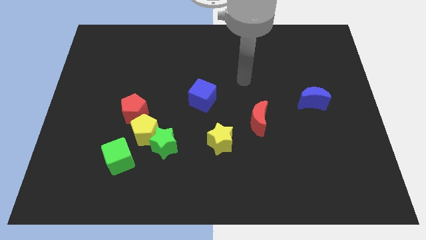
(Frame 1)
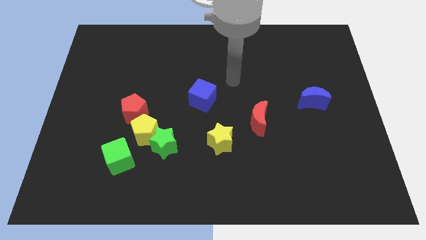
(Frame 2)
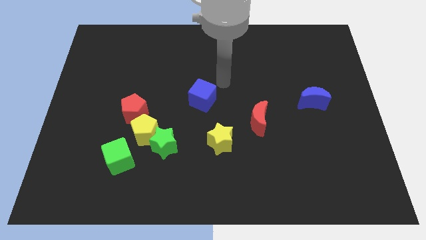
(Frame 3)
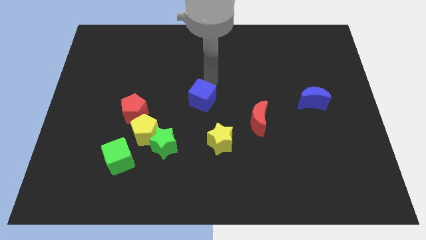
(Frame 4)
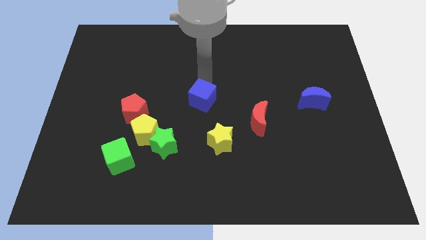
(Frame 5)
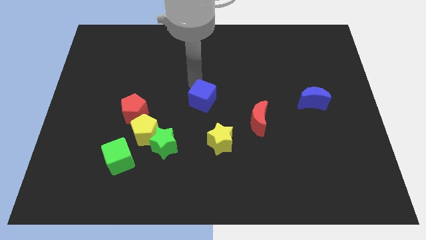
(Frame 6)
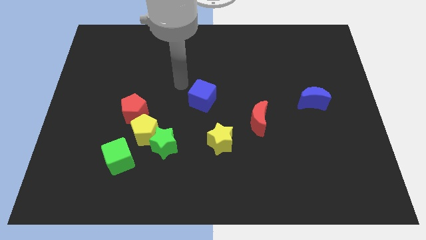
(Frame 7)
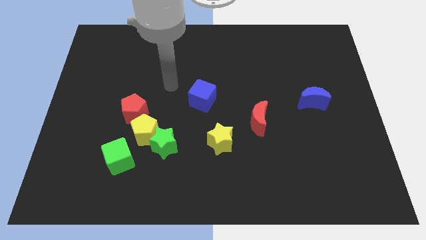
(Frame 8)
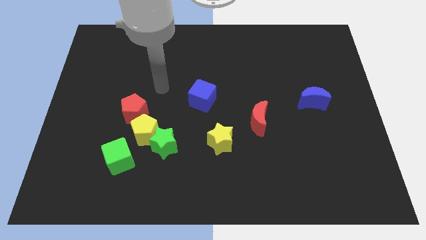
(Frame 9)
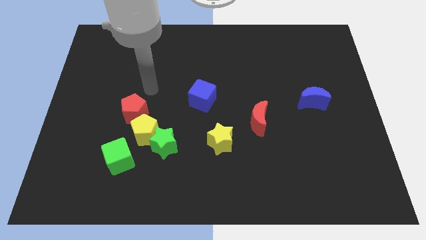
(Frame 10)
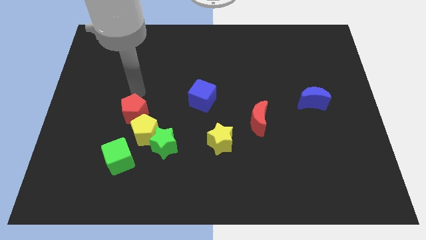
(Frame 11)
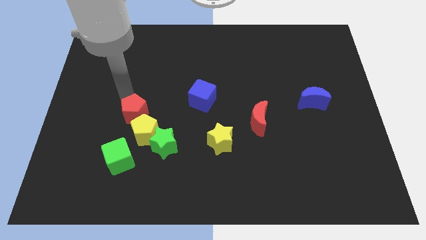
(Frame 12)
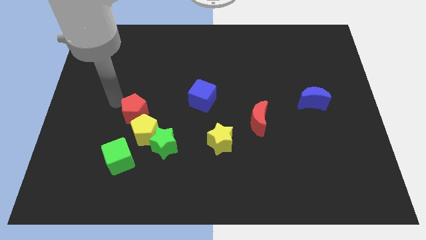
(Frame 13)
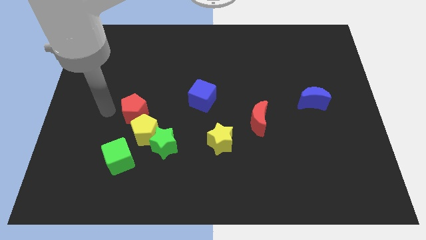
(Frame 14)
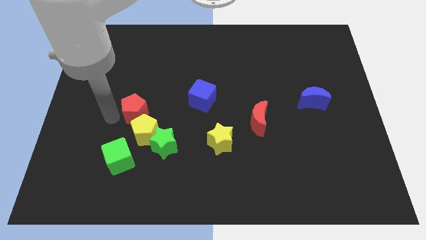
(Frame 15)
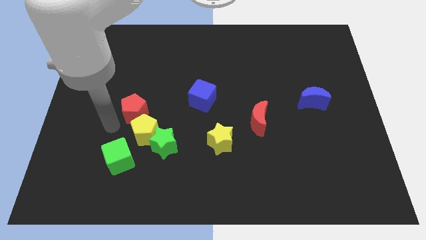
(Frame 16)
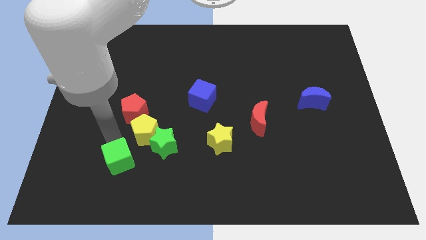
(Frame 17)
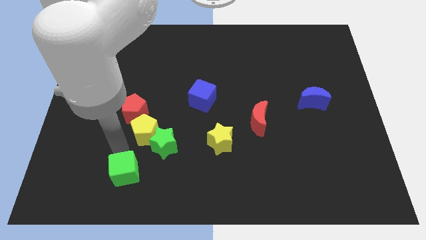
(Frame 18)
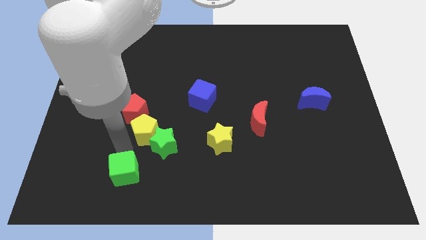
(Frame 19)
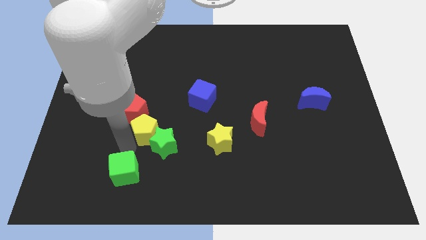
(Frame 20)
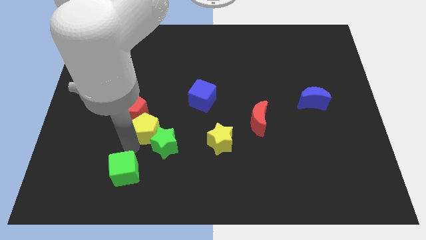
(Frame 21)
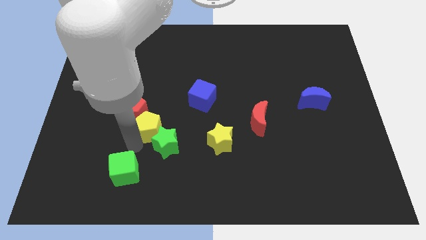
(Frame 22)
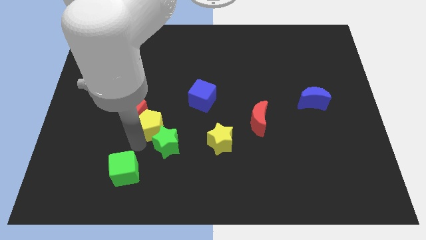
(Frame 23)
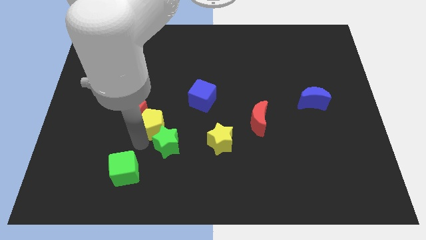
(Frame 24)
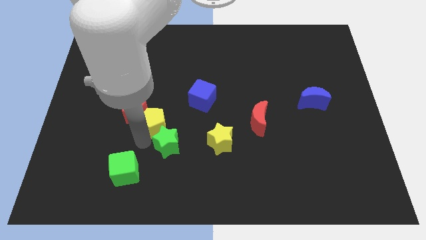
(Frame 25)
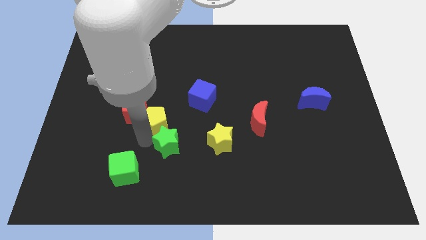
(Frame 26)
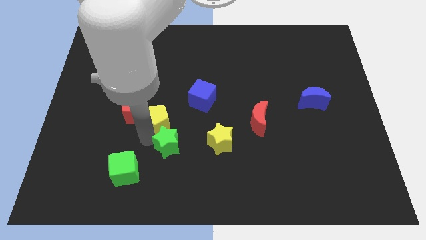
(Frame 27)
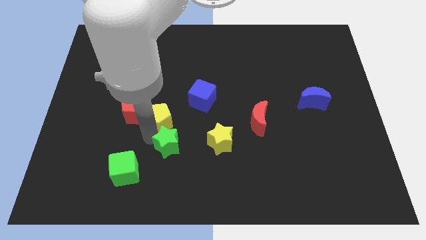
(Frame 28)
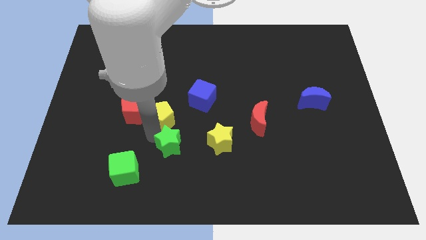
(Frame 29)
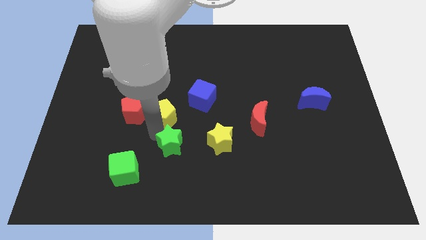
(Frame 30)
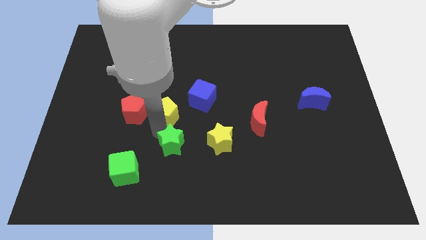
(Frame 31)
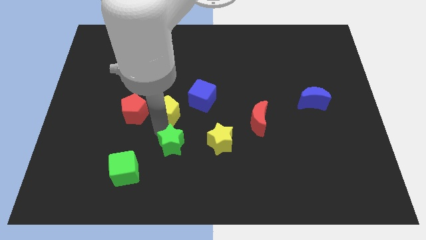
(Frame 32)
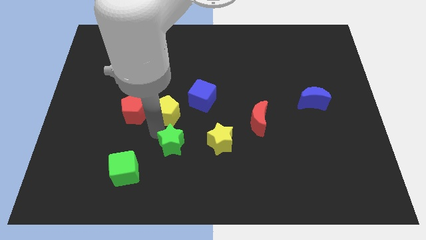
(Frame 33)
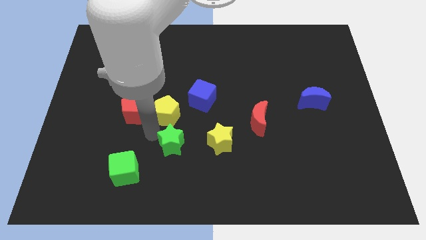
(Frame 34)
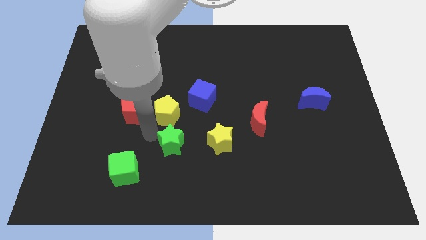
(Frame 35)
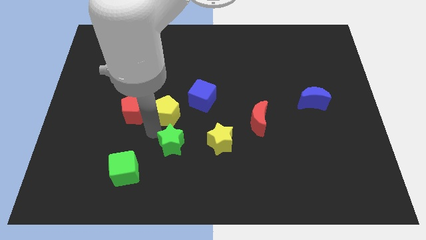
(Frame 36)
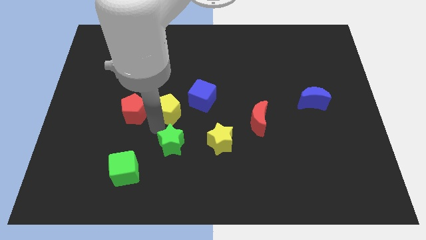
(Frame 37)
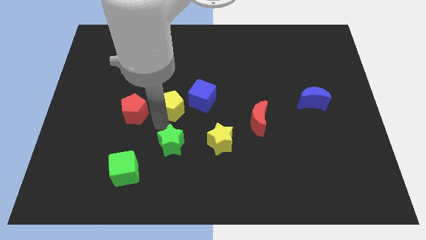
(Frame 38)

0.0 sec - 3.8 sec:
pull the yellow pentagon apart from the green star, red pentagon, and green cube

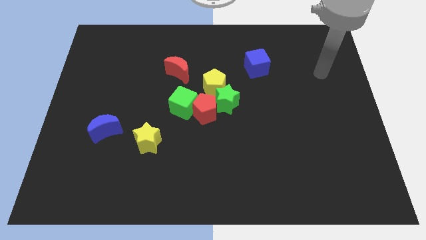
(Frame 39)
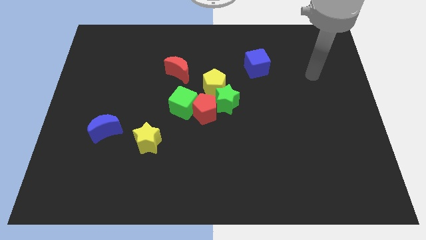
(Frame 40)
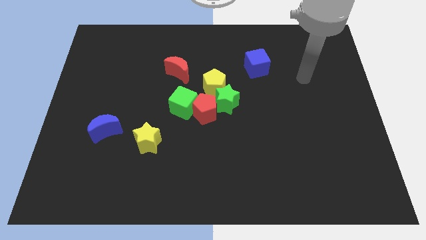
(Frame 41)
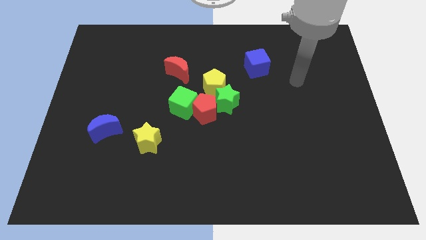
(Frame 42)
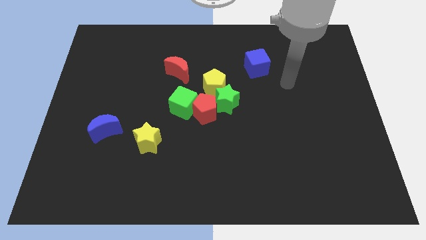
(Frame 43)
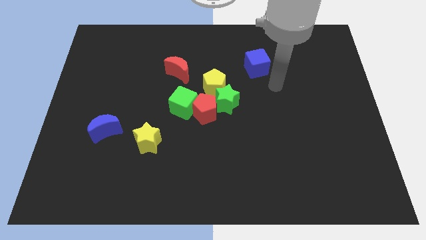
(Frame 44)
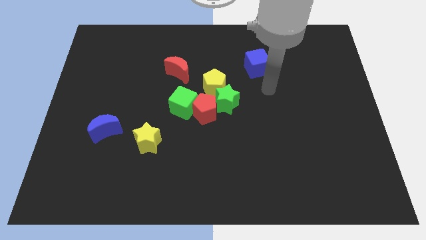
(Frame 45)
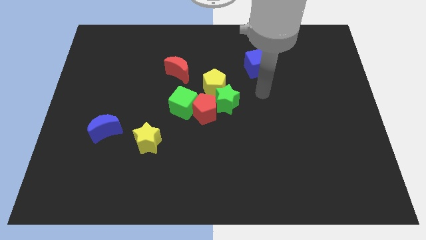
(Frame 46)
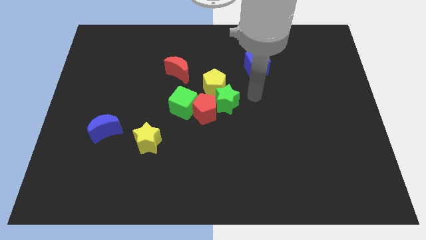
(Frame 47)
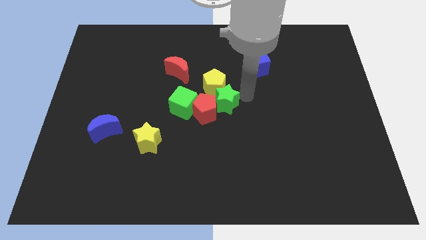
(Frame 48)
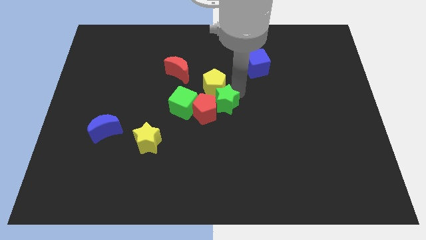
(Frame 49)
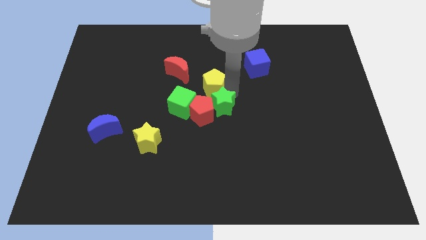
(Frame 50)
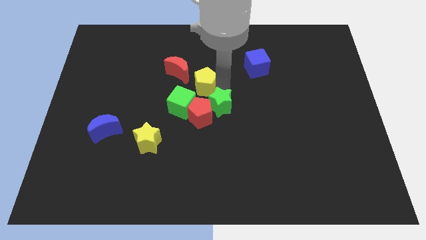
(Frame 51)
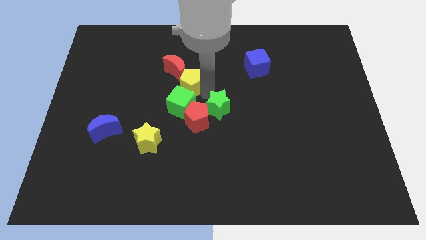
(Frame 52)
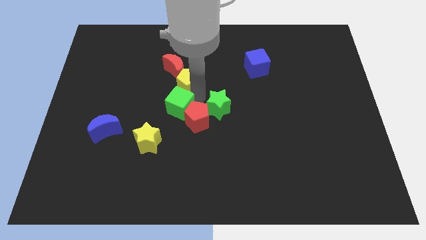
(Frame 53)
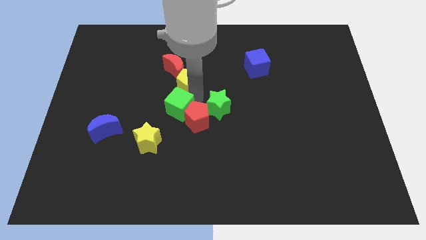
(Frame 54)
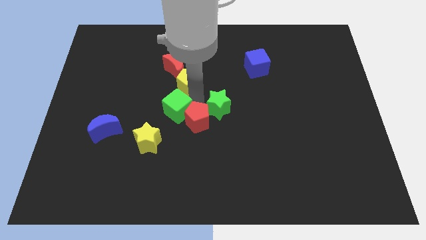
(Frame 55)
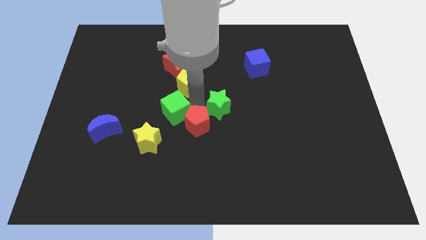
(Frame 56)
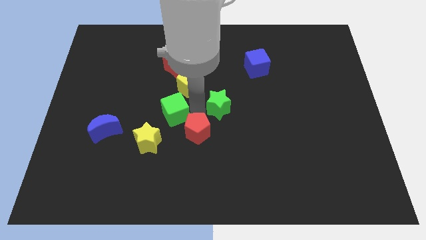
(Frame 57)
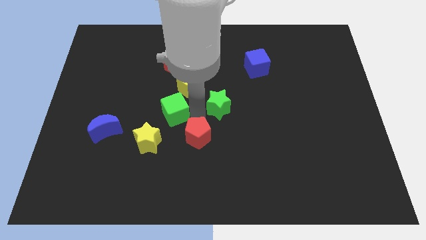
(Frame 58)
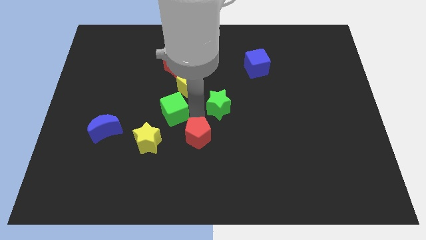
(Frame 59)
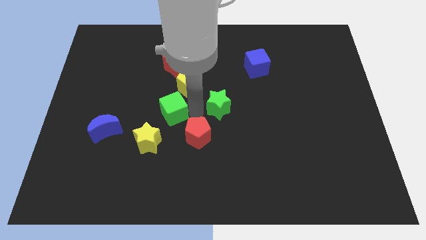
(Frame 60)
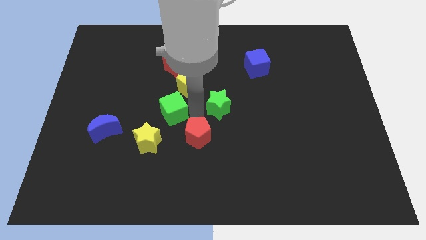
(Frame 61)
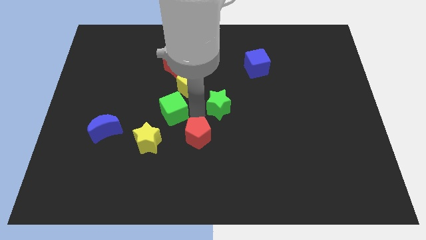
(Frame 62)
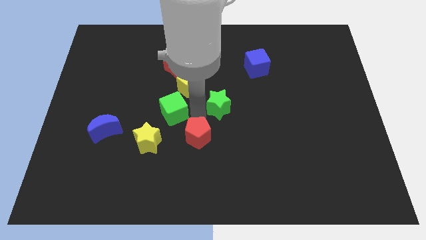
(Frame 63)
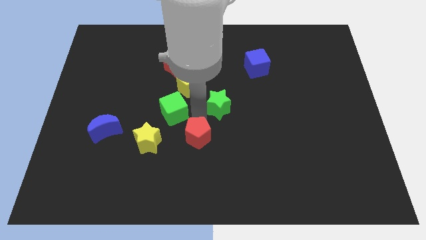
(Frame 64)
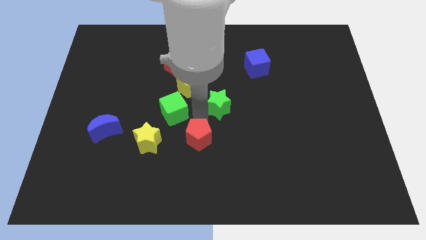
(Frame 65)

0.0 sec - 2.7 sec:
pull the red pentagon apart from the green star, green cube, and yellow pentagon

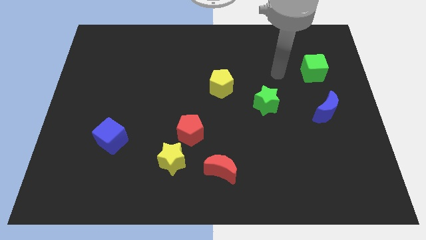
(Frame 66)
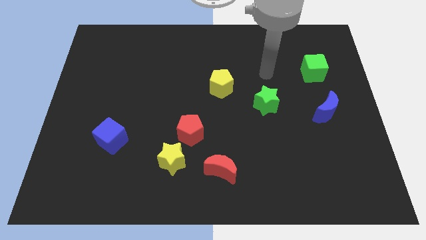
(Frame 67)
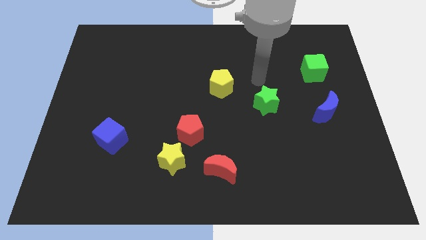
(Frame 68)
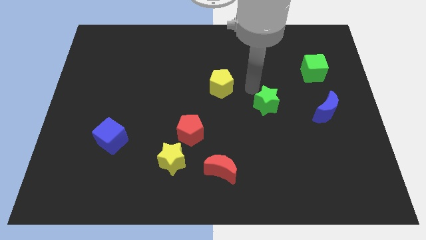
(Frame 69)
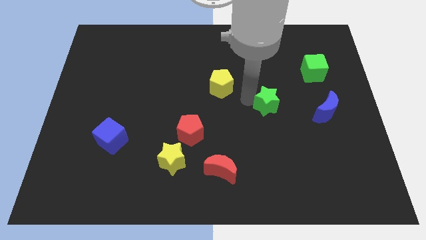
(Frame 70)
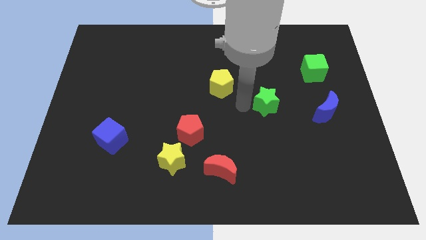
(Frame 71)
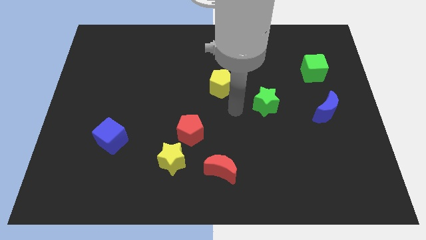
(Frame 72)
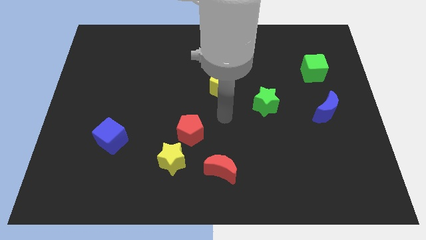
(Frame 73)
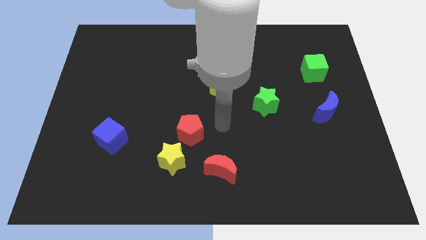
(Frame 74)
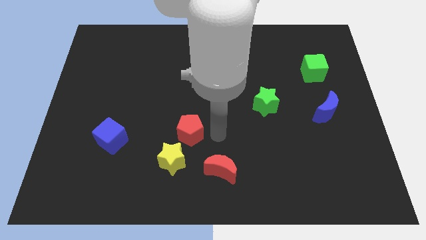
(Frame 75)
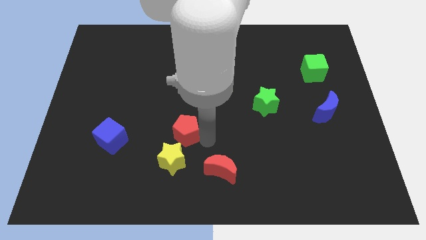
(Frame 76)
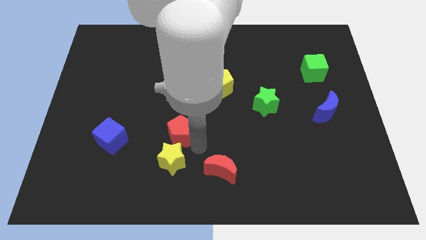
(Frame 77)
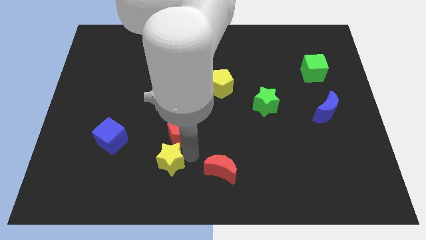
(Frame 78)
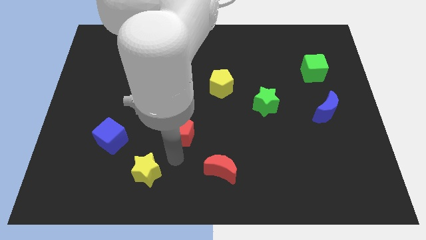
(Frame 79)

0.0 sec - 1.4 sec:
separate the red pentagon from the yellow star

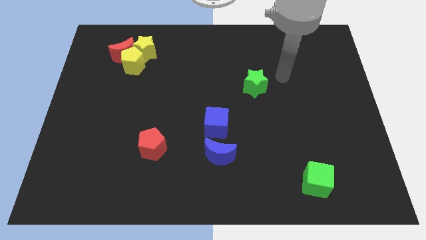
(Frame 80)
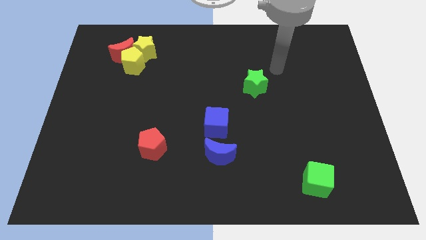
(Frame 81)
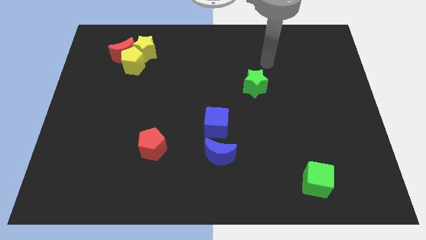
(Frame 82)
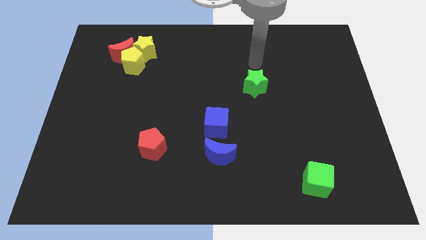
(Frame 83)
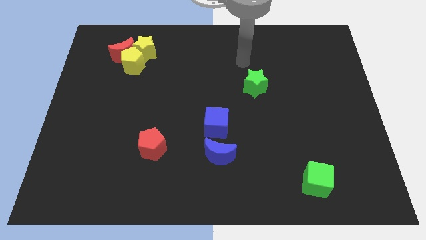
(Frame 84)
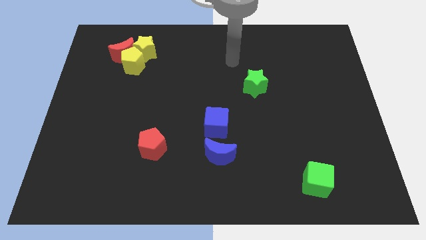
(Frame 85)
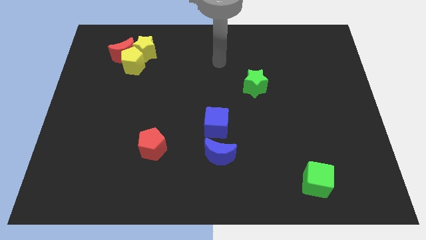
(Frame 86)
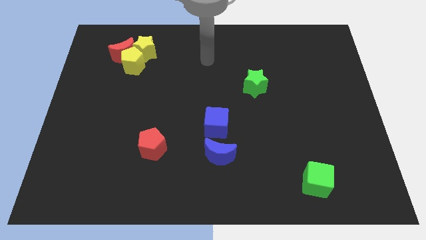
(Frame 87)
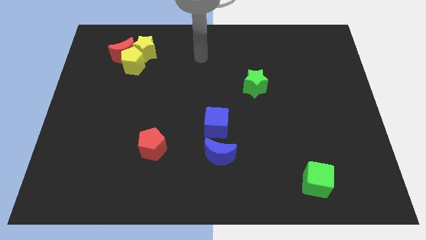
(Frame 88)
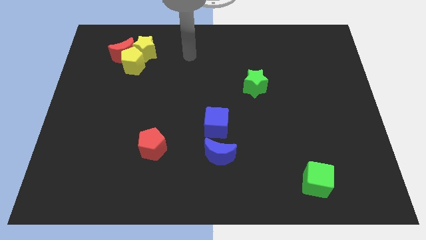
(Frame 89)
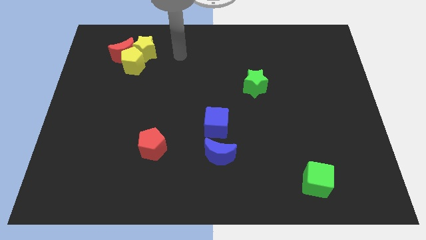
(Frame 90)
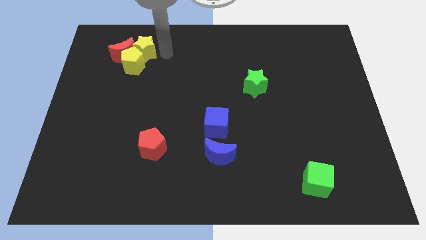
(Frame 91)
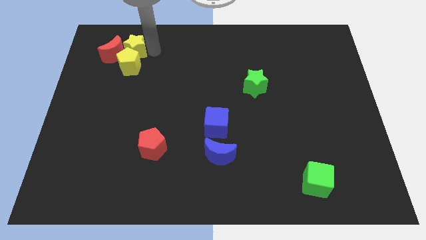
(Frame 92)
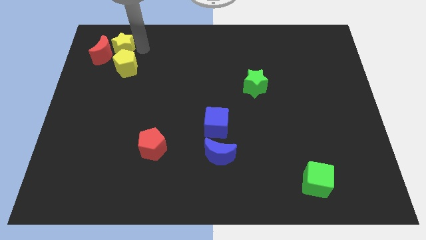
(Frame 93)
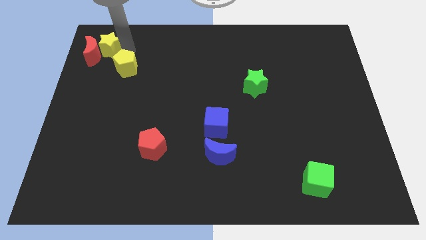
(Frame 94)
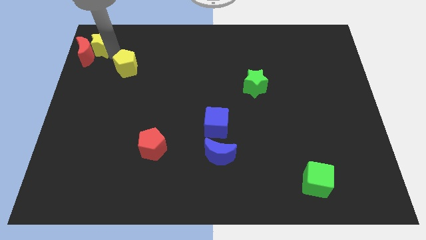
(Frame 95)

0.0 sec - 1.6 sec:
move the yellow pentagon away from the red moon and yellow star
